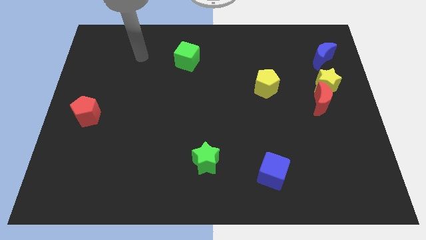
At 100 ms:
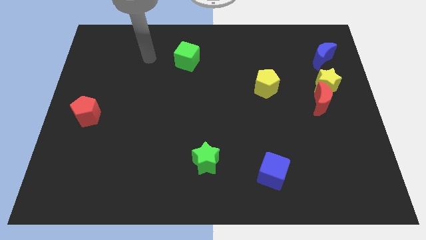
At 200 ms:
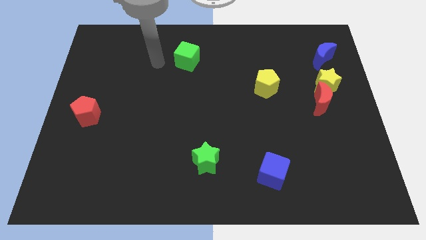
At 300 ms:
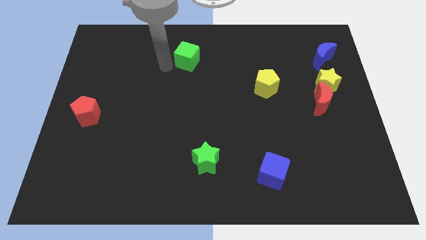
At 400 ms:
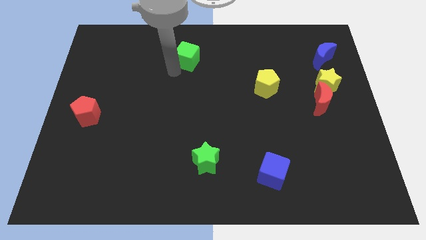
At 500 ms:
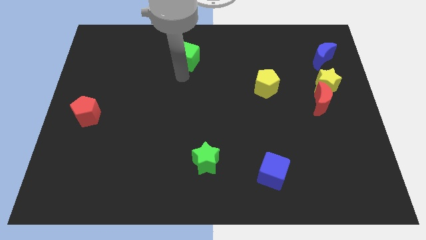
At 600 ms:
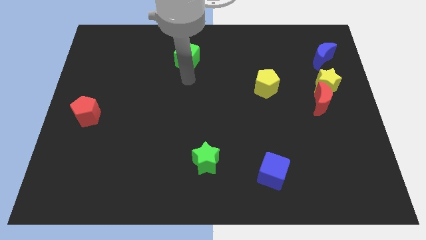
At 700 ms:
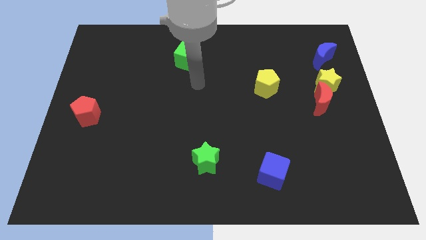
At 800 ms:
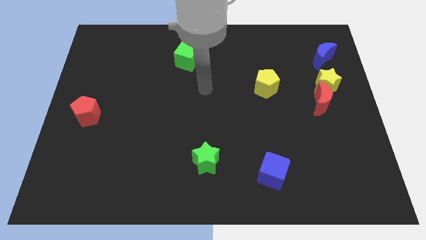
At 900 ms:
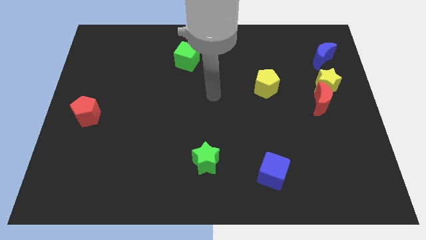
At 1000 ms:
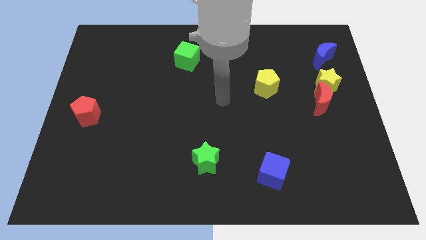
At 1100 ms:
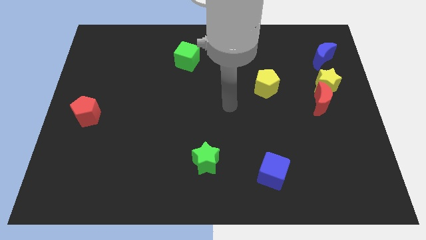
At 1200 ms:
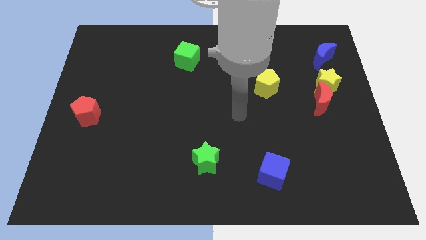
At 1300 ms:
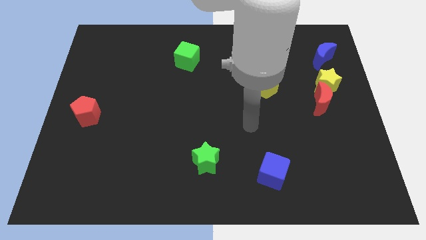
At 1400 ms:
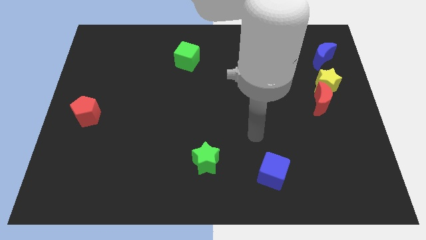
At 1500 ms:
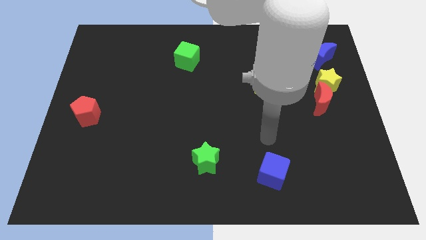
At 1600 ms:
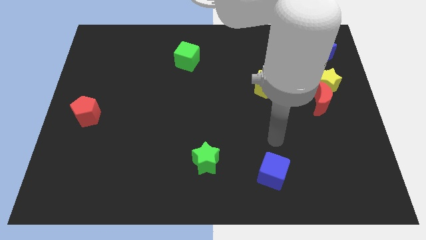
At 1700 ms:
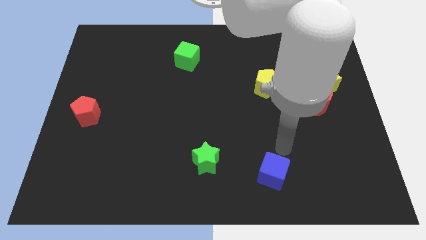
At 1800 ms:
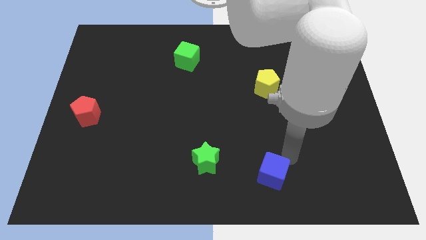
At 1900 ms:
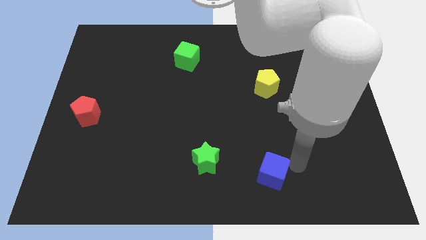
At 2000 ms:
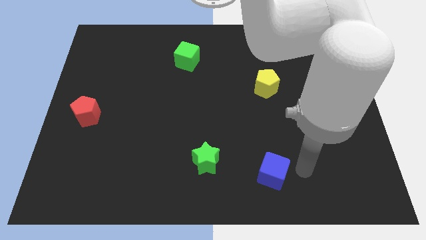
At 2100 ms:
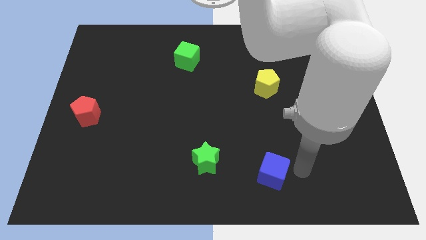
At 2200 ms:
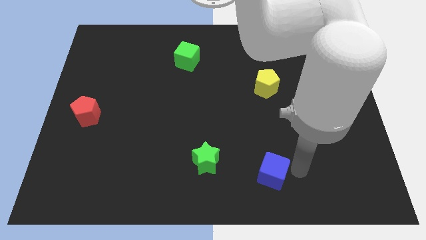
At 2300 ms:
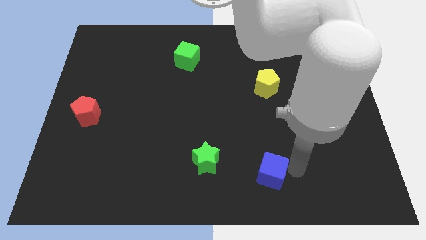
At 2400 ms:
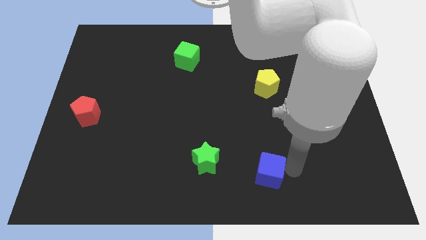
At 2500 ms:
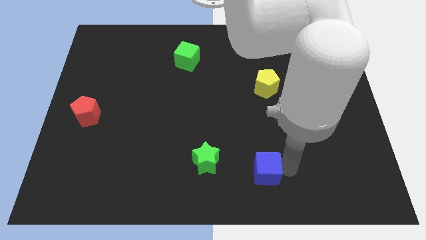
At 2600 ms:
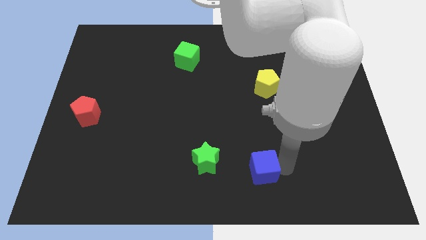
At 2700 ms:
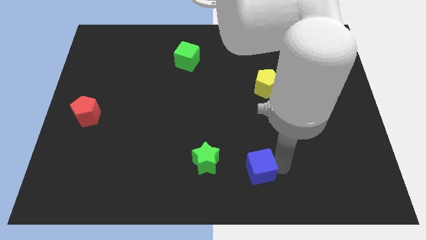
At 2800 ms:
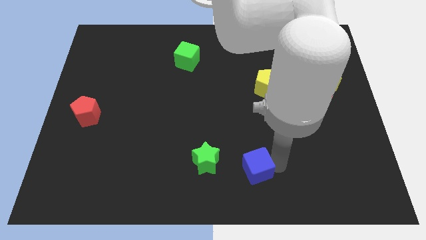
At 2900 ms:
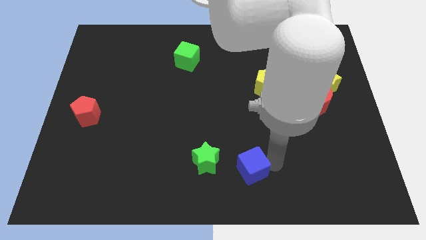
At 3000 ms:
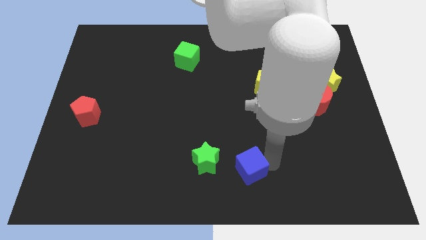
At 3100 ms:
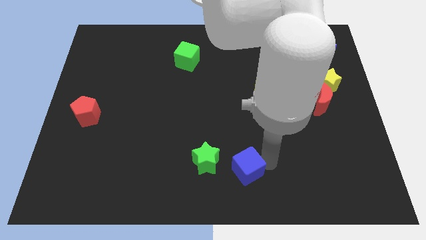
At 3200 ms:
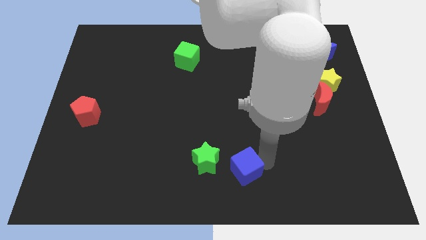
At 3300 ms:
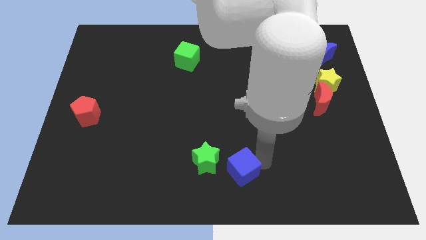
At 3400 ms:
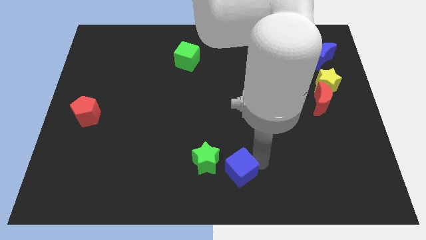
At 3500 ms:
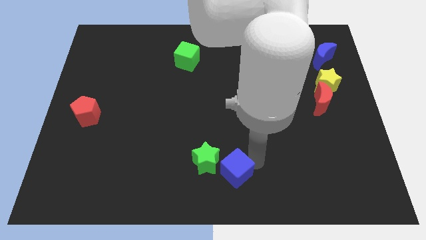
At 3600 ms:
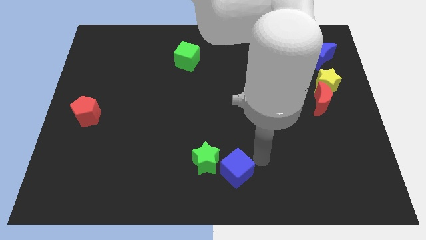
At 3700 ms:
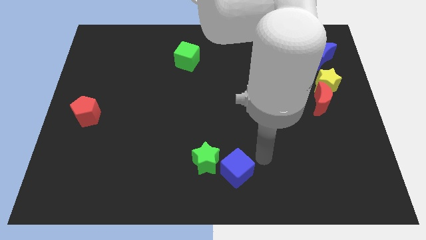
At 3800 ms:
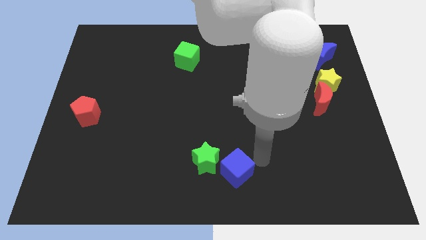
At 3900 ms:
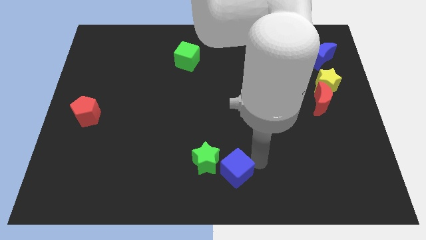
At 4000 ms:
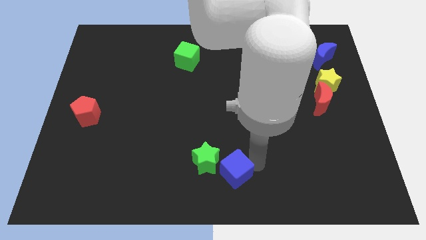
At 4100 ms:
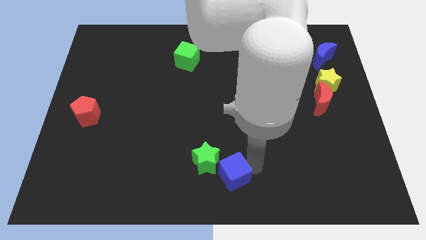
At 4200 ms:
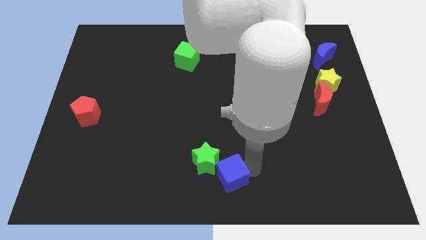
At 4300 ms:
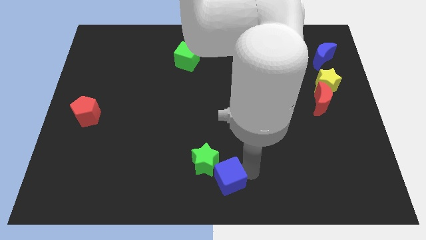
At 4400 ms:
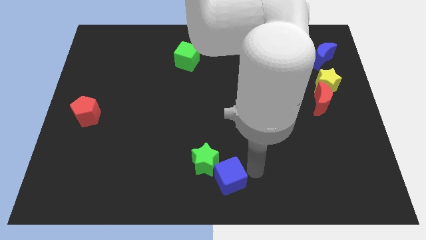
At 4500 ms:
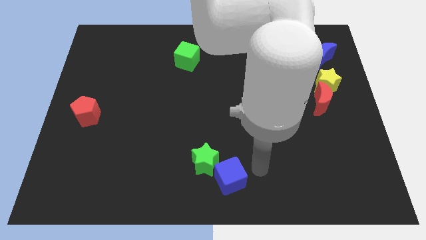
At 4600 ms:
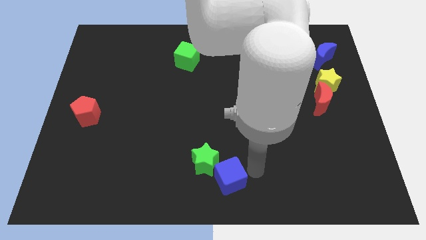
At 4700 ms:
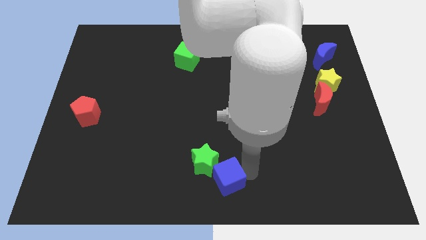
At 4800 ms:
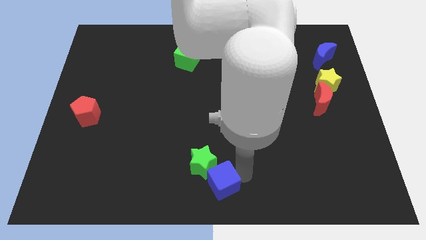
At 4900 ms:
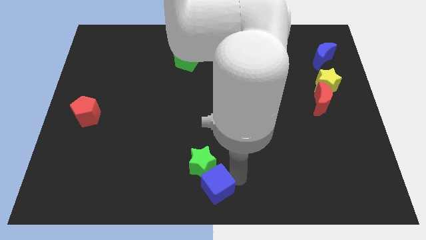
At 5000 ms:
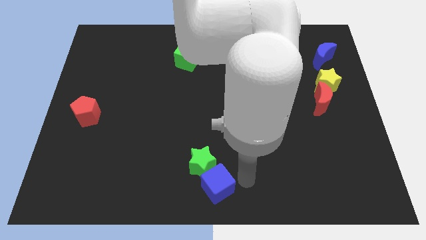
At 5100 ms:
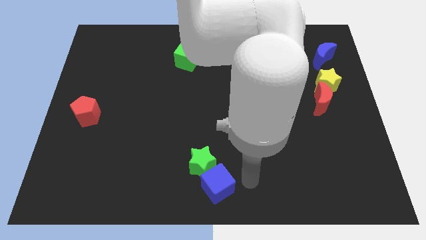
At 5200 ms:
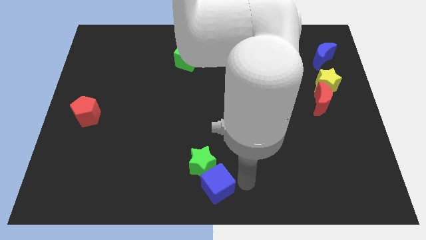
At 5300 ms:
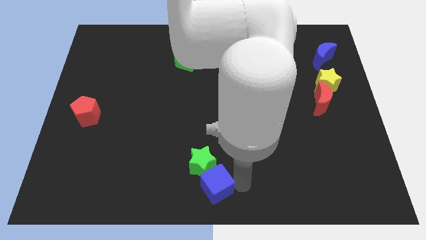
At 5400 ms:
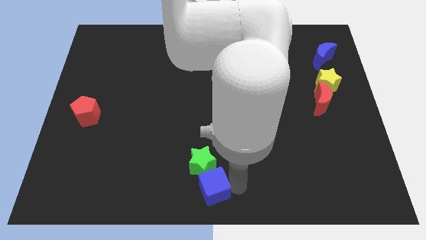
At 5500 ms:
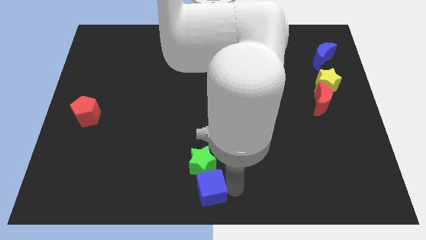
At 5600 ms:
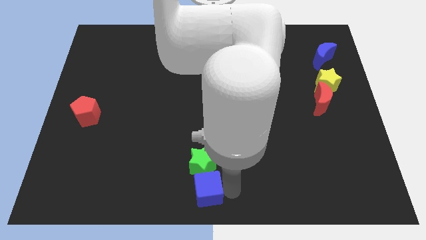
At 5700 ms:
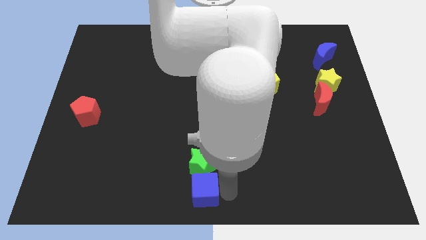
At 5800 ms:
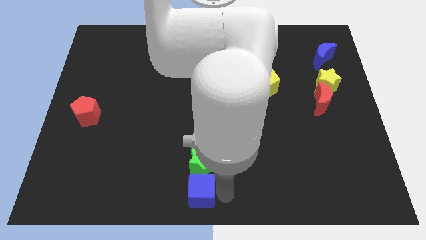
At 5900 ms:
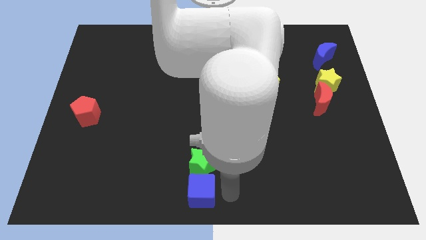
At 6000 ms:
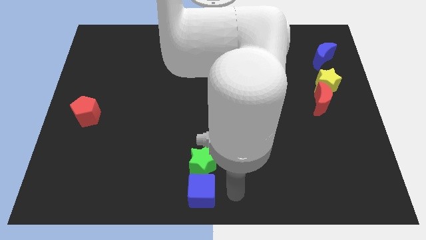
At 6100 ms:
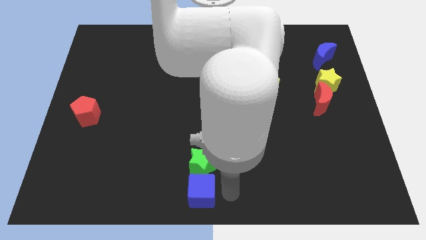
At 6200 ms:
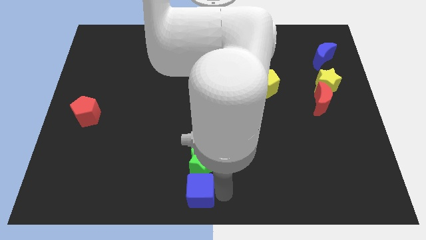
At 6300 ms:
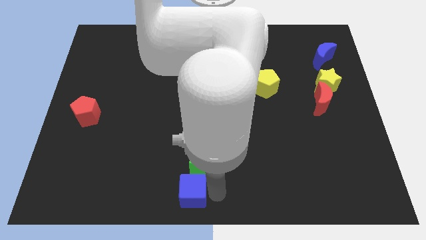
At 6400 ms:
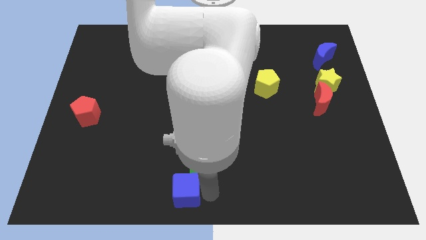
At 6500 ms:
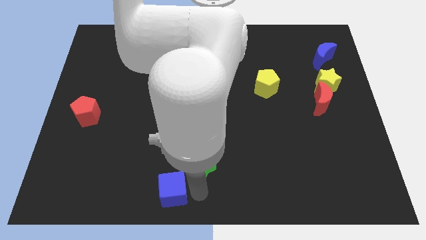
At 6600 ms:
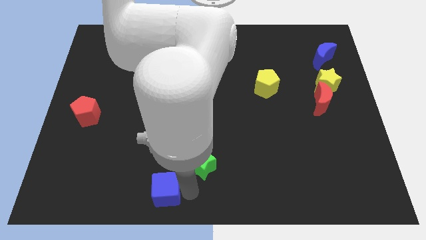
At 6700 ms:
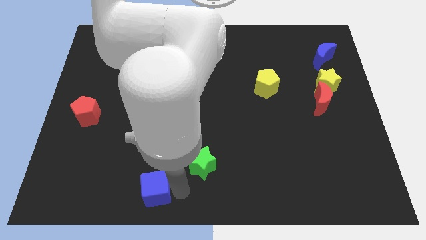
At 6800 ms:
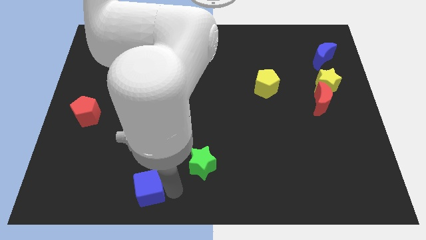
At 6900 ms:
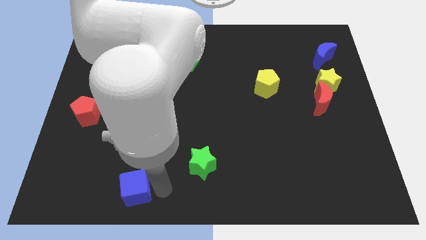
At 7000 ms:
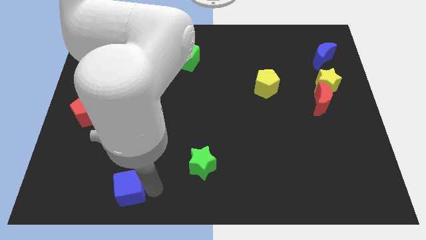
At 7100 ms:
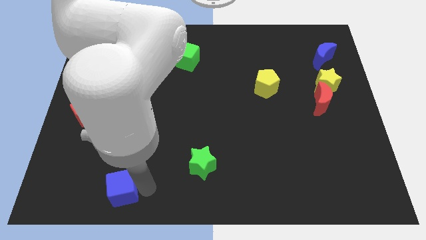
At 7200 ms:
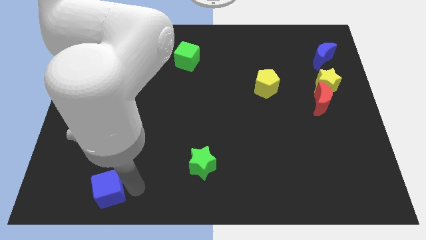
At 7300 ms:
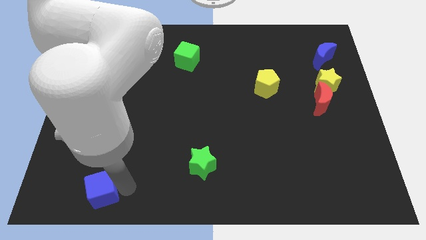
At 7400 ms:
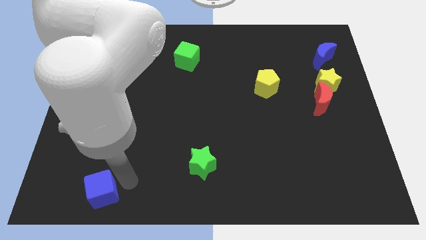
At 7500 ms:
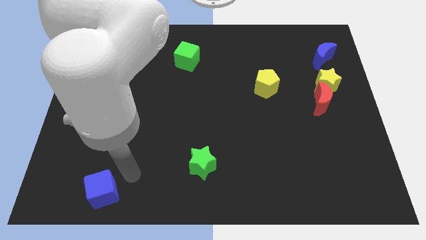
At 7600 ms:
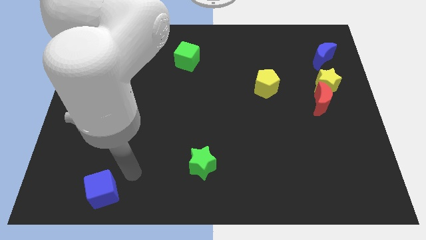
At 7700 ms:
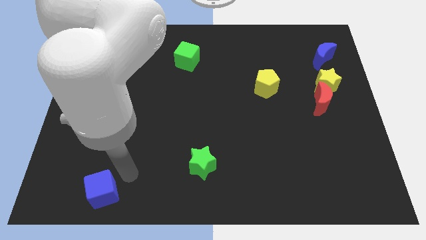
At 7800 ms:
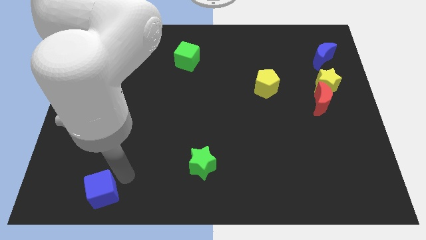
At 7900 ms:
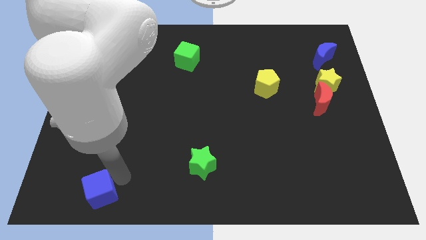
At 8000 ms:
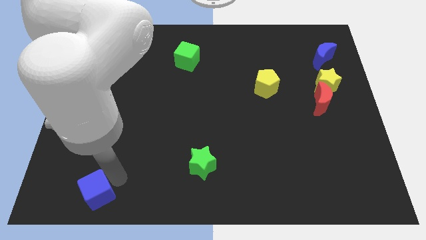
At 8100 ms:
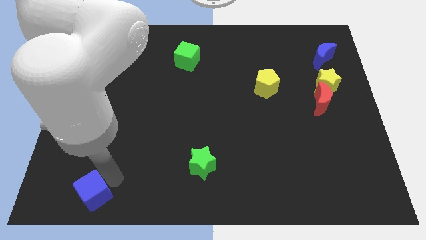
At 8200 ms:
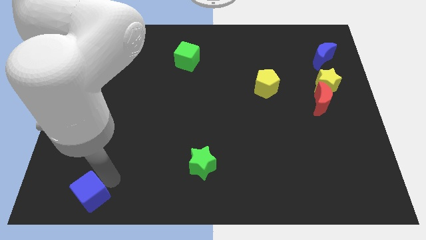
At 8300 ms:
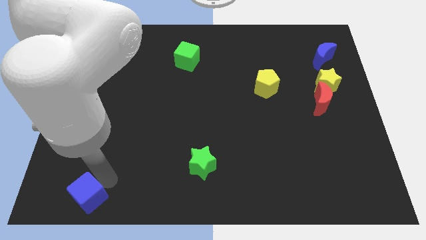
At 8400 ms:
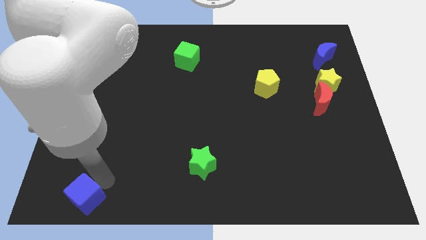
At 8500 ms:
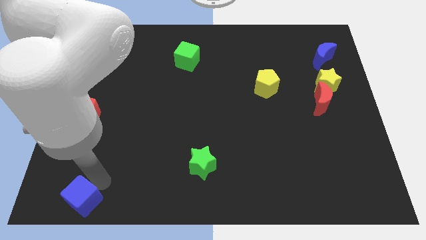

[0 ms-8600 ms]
move the blue cube to the bottom left
